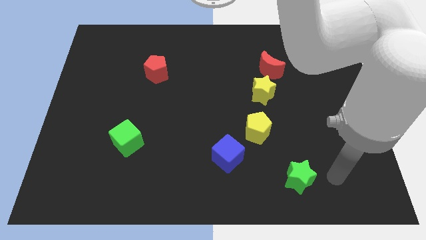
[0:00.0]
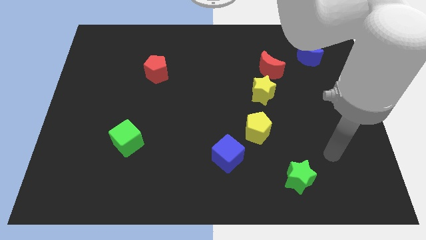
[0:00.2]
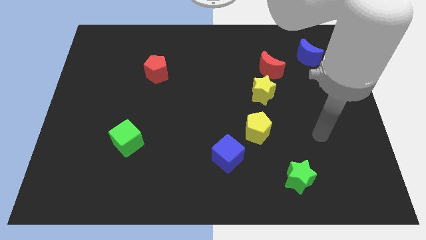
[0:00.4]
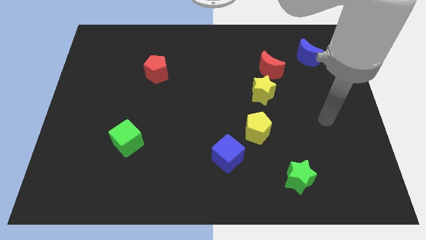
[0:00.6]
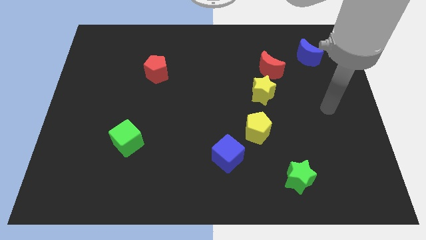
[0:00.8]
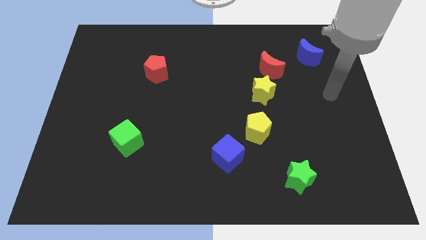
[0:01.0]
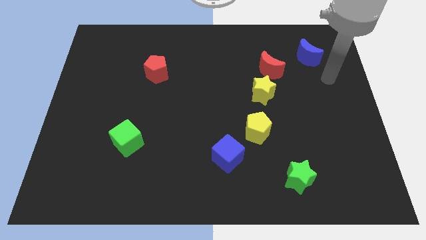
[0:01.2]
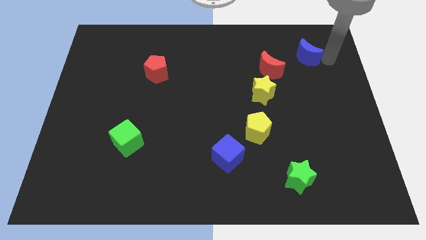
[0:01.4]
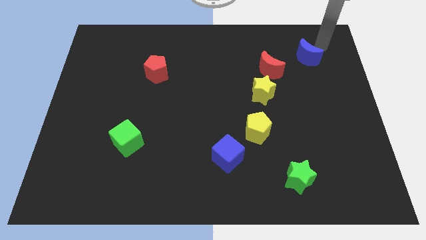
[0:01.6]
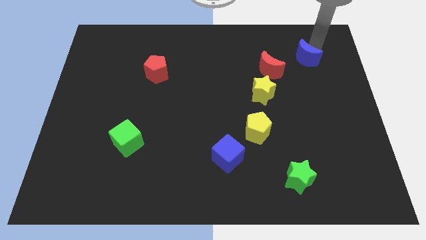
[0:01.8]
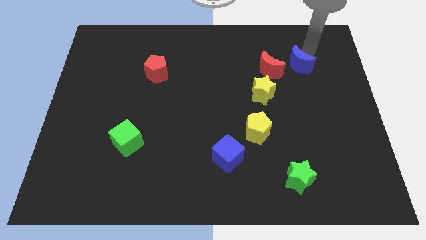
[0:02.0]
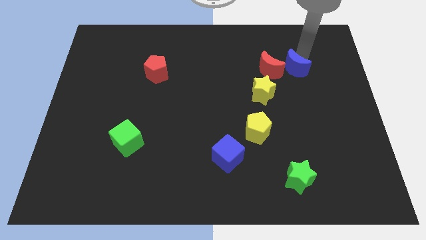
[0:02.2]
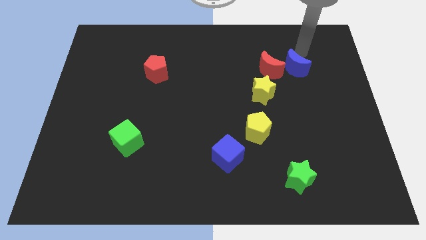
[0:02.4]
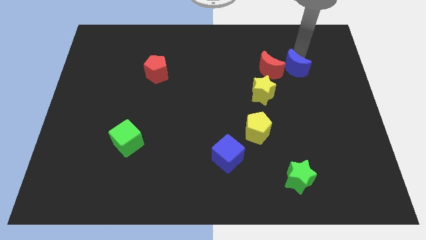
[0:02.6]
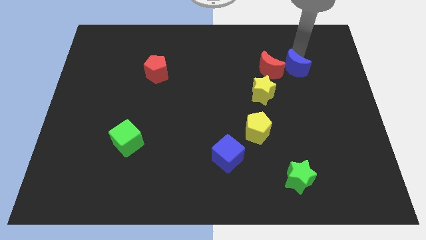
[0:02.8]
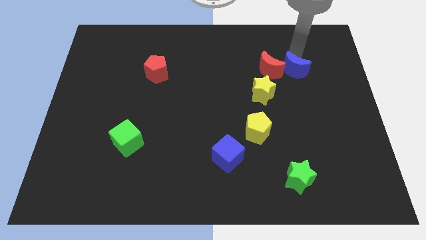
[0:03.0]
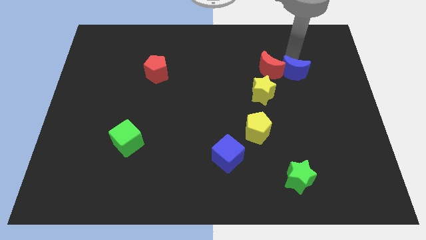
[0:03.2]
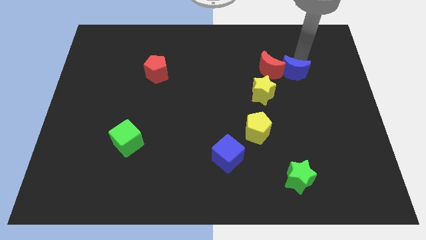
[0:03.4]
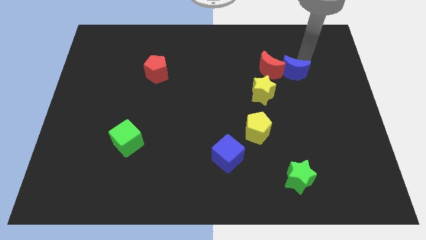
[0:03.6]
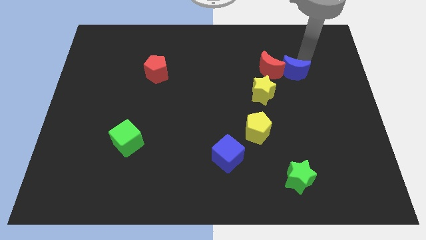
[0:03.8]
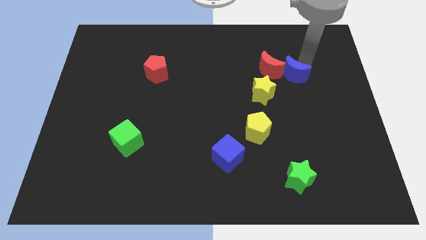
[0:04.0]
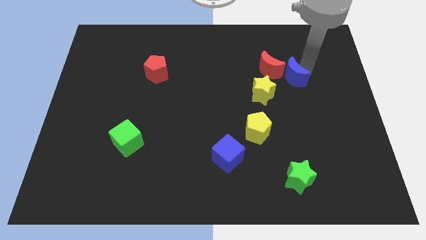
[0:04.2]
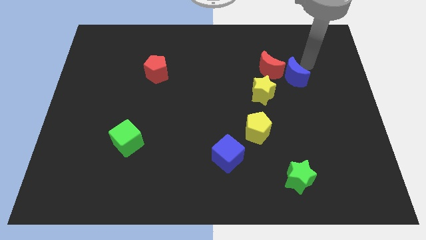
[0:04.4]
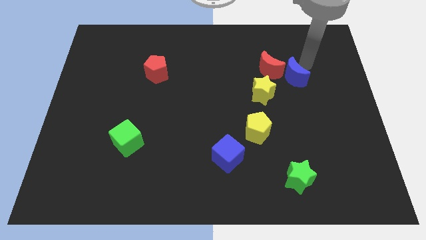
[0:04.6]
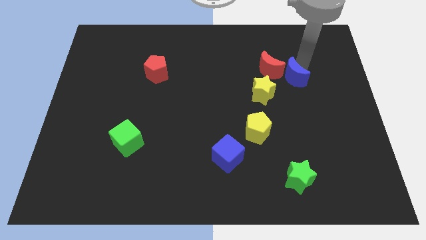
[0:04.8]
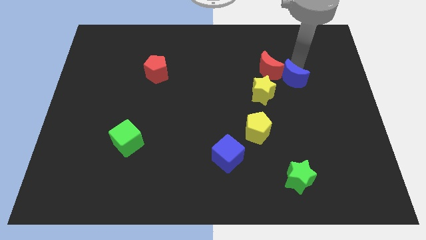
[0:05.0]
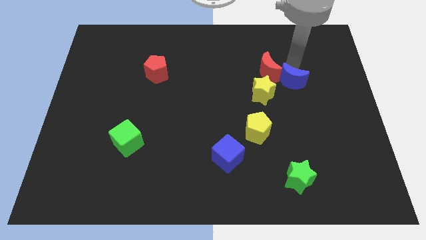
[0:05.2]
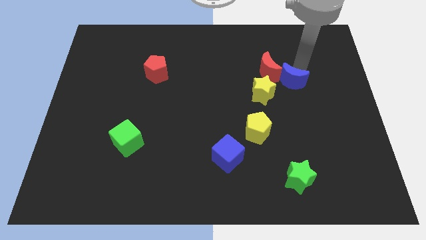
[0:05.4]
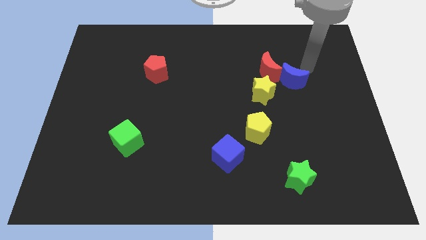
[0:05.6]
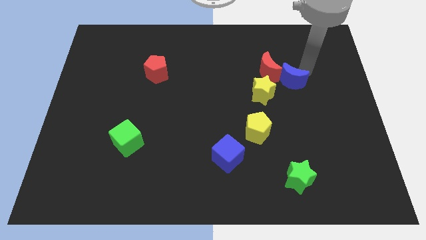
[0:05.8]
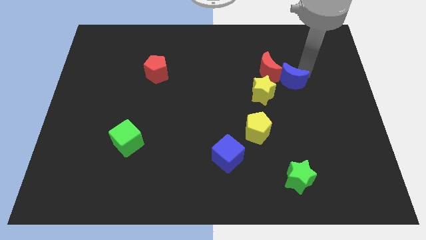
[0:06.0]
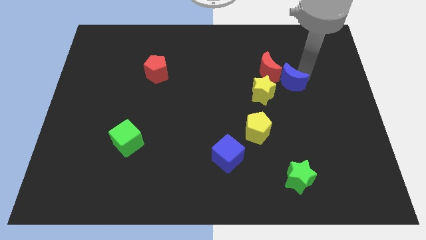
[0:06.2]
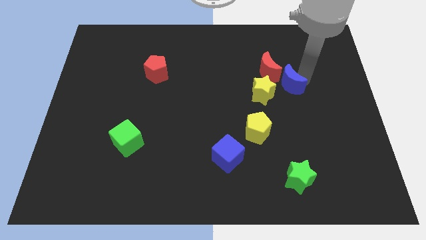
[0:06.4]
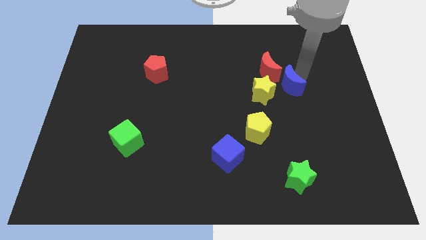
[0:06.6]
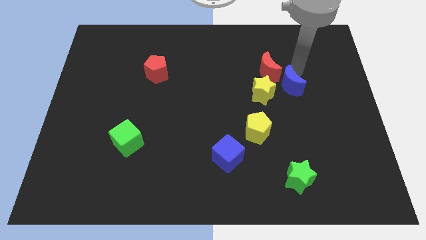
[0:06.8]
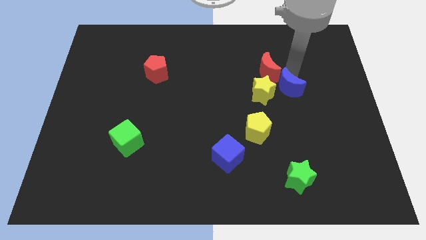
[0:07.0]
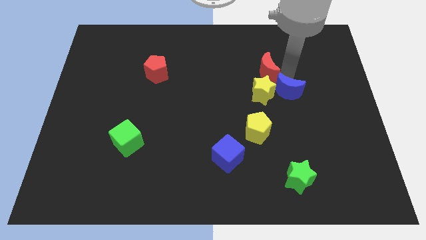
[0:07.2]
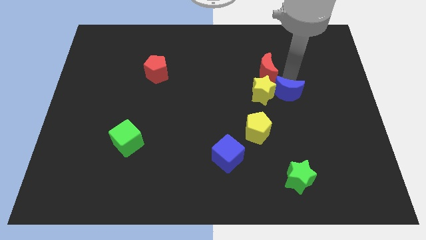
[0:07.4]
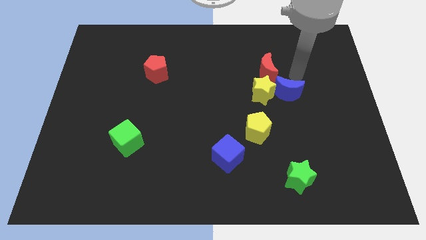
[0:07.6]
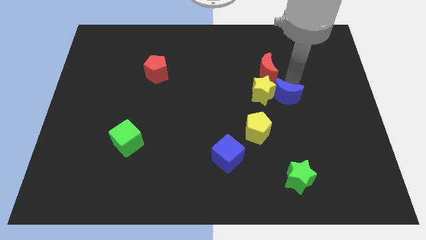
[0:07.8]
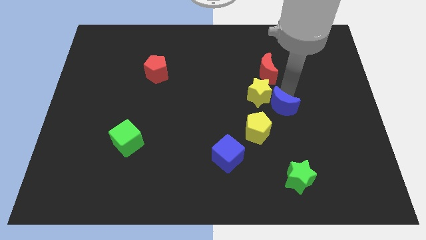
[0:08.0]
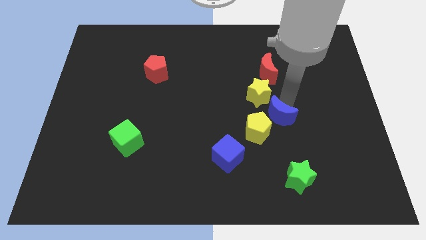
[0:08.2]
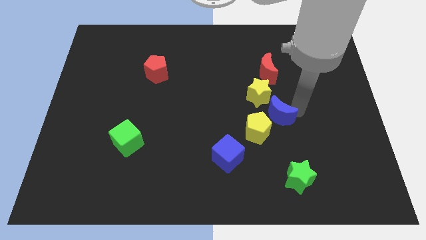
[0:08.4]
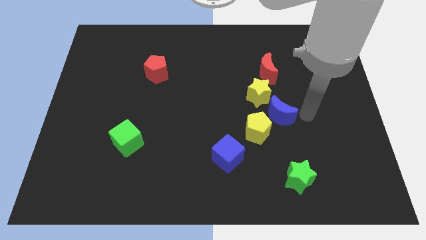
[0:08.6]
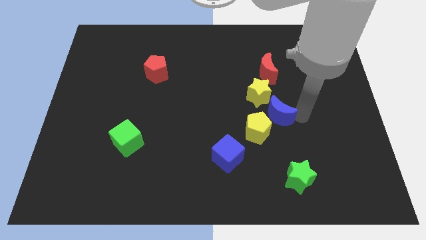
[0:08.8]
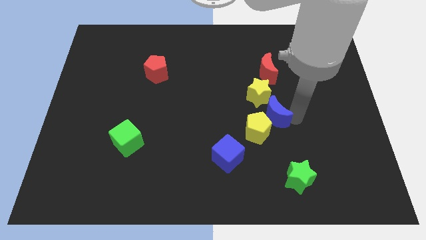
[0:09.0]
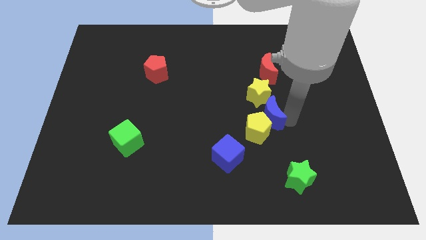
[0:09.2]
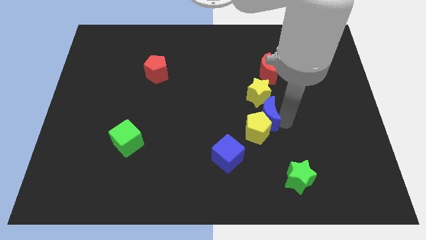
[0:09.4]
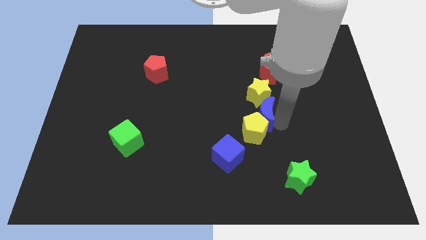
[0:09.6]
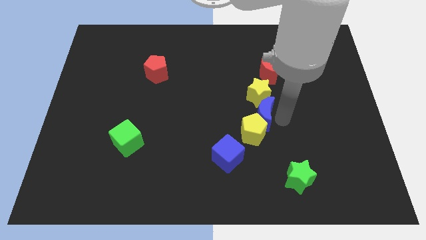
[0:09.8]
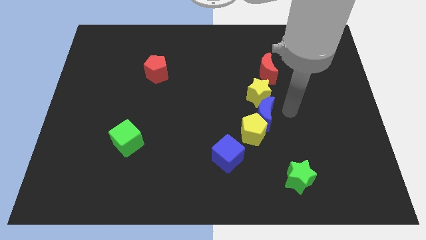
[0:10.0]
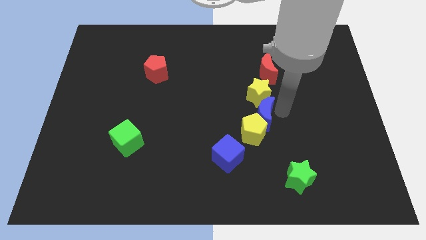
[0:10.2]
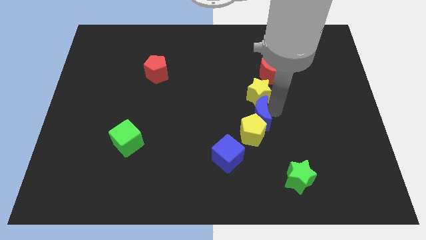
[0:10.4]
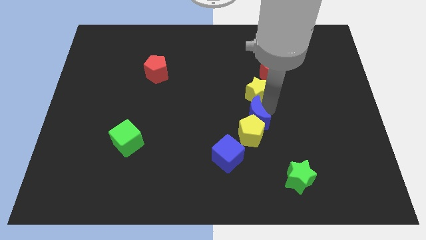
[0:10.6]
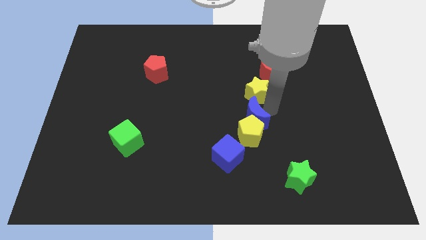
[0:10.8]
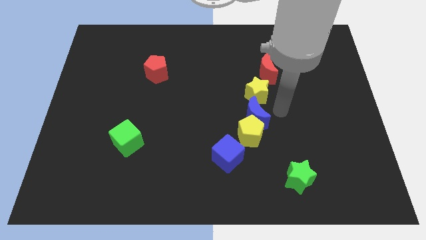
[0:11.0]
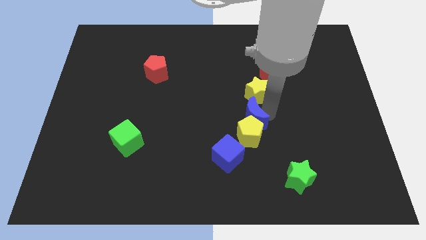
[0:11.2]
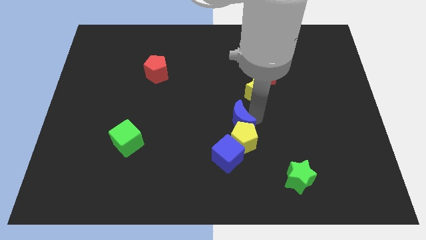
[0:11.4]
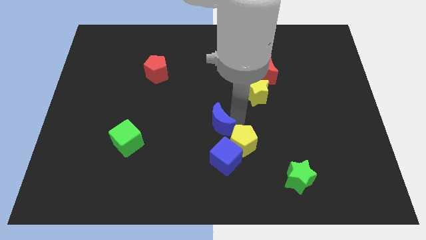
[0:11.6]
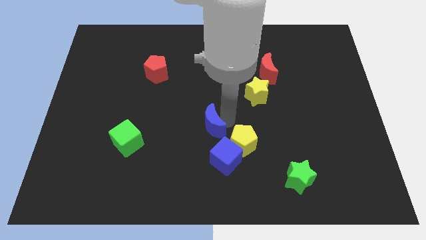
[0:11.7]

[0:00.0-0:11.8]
put the blue moon just left of the yellow pentagon

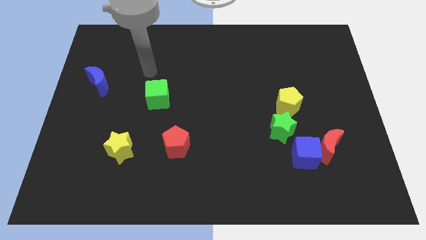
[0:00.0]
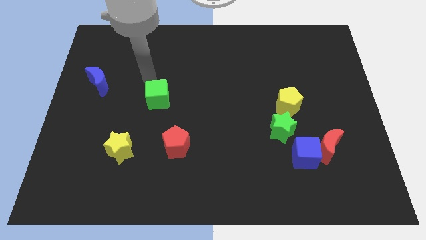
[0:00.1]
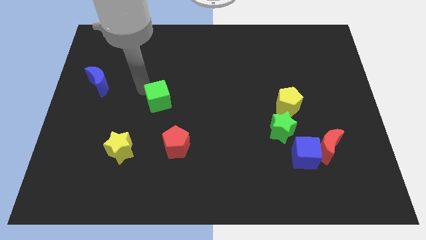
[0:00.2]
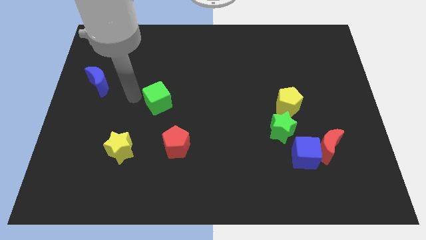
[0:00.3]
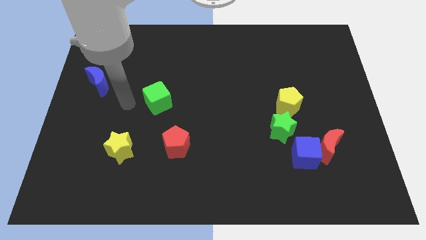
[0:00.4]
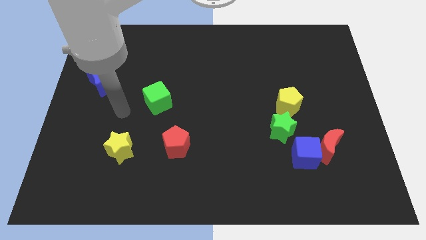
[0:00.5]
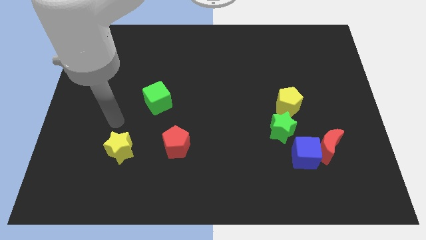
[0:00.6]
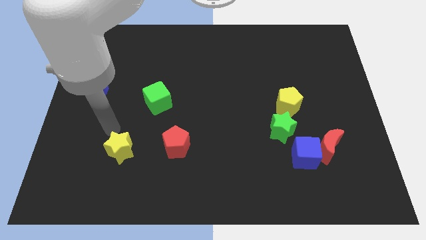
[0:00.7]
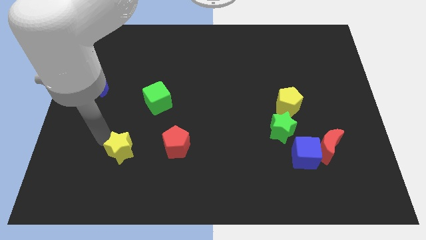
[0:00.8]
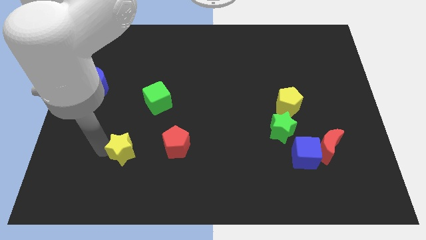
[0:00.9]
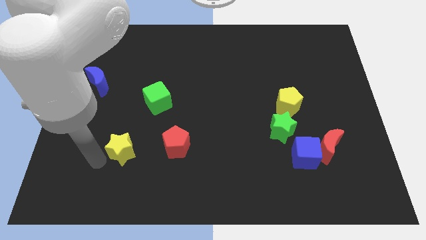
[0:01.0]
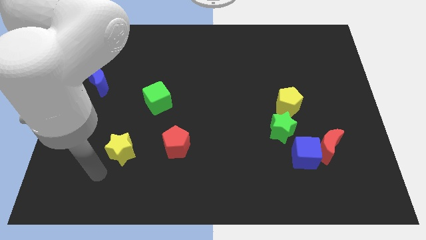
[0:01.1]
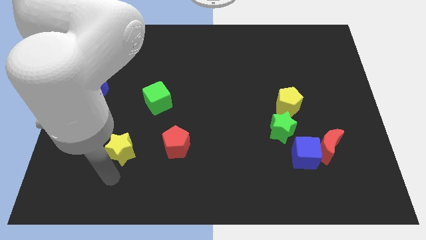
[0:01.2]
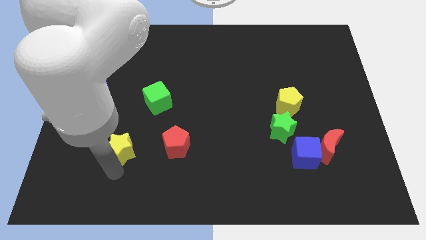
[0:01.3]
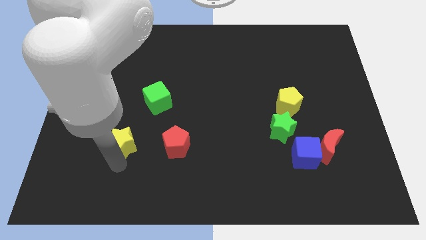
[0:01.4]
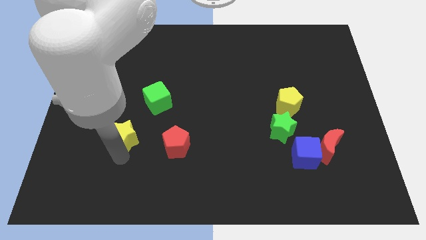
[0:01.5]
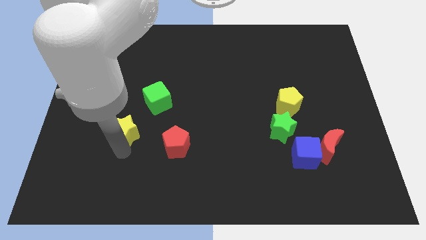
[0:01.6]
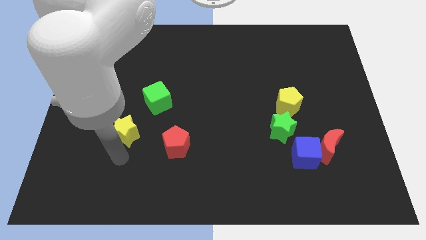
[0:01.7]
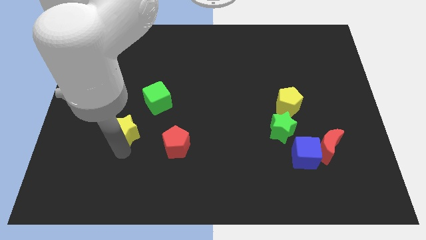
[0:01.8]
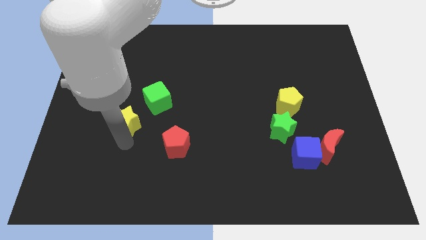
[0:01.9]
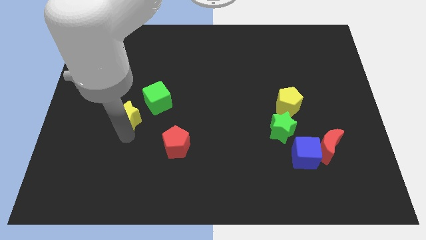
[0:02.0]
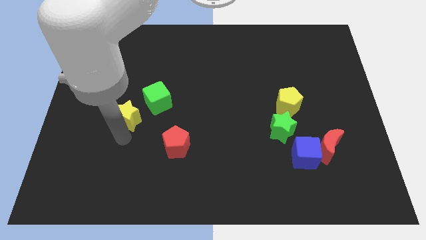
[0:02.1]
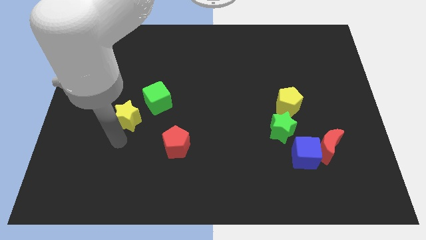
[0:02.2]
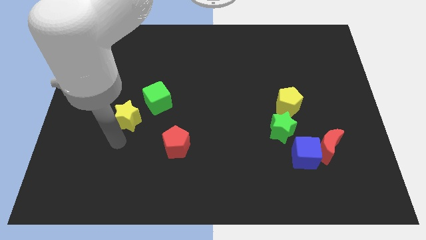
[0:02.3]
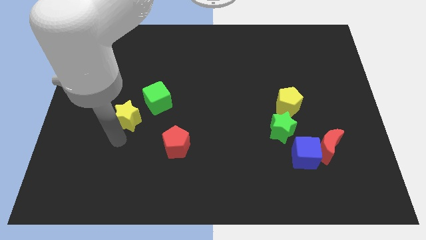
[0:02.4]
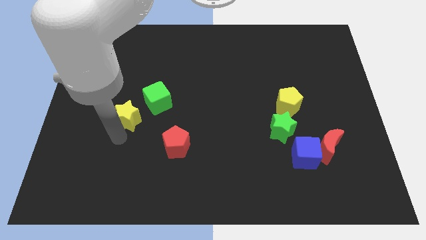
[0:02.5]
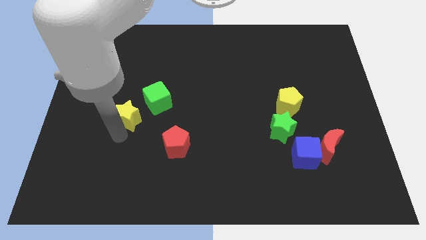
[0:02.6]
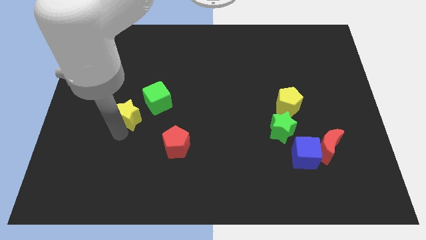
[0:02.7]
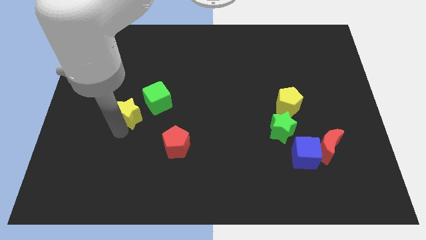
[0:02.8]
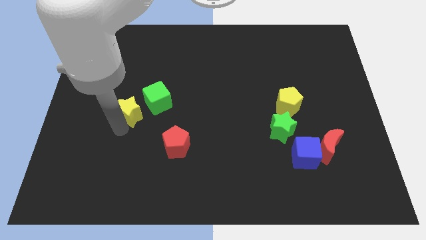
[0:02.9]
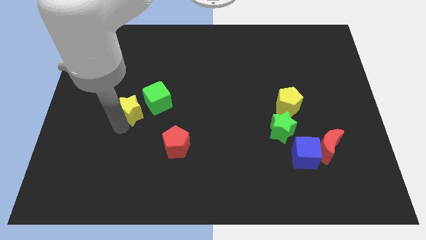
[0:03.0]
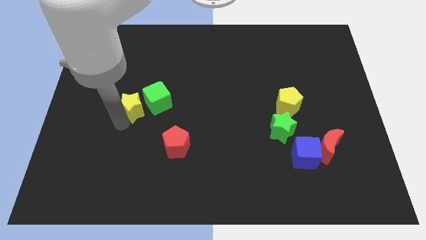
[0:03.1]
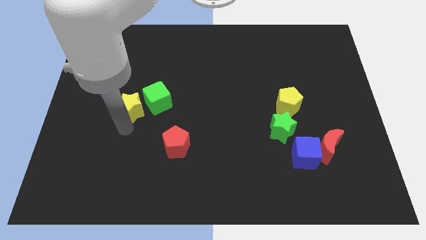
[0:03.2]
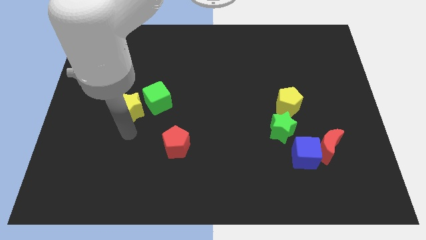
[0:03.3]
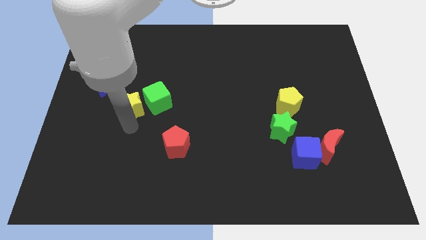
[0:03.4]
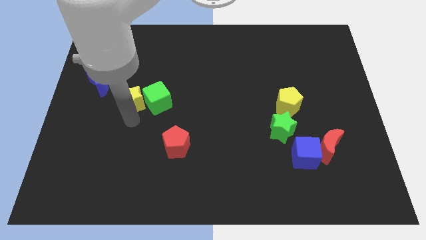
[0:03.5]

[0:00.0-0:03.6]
put the yellow star to the top left of the green cube
